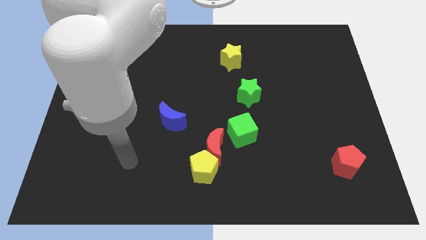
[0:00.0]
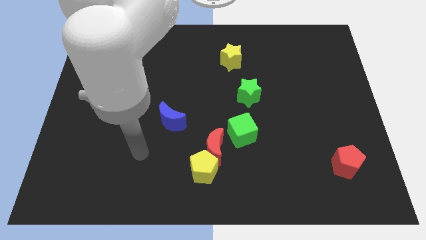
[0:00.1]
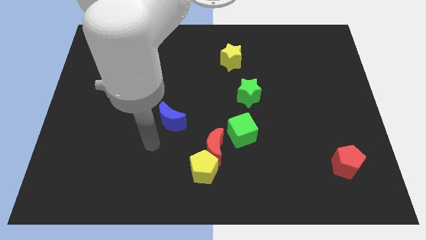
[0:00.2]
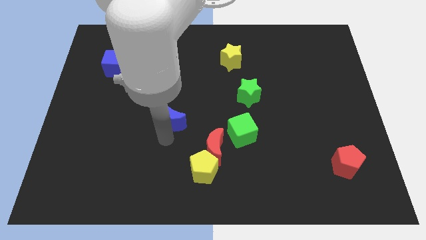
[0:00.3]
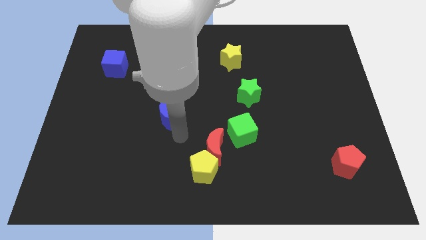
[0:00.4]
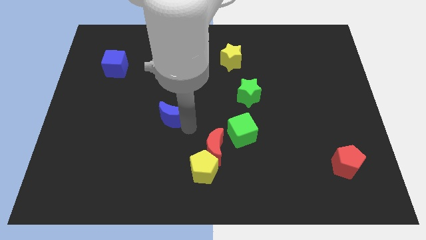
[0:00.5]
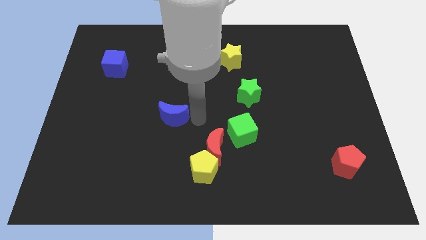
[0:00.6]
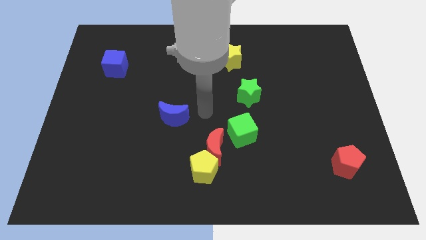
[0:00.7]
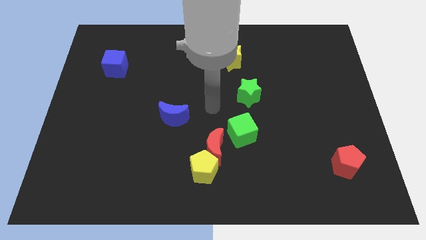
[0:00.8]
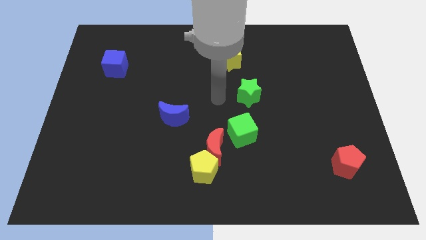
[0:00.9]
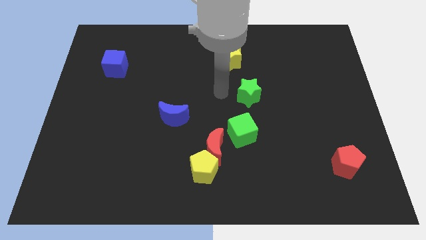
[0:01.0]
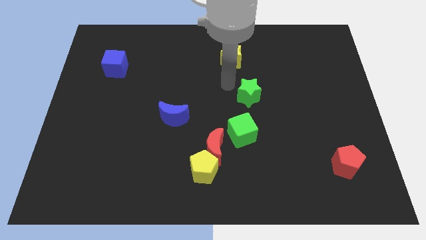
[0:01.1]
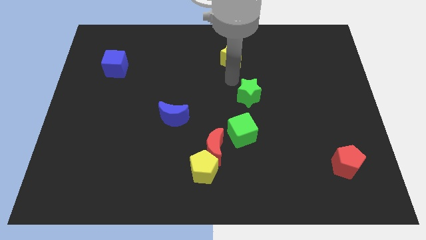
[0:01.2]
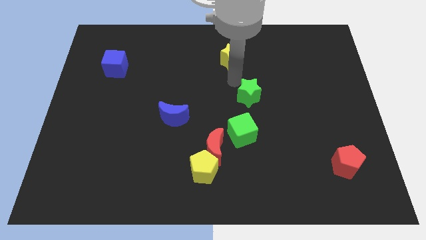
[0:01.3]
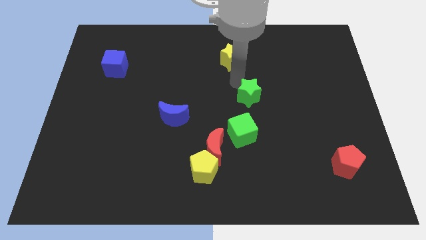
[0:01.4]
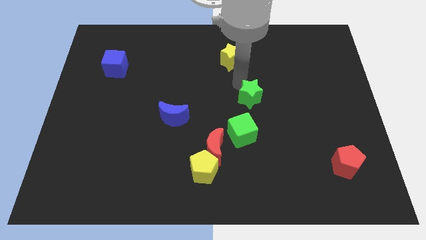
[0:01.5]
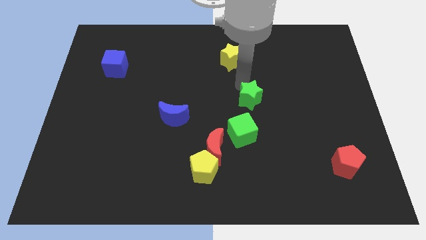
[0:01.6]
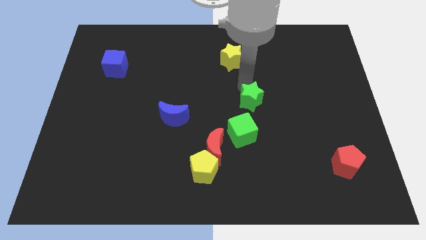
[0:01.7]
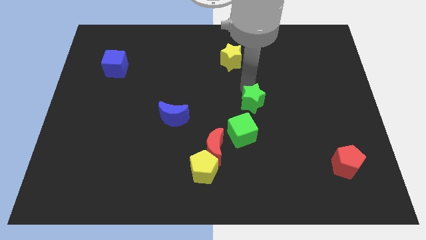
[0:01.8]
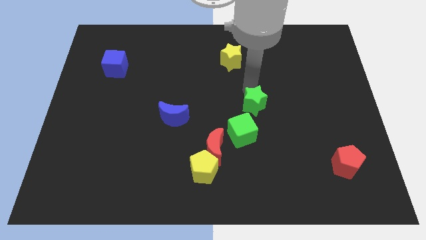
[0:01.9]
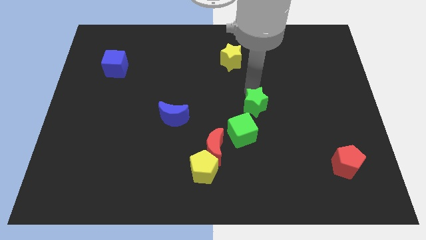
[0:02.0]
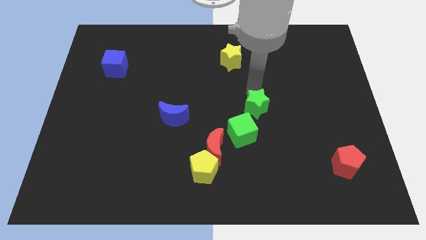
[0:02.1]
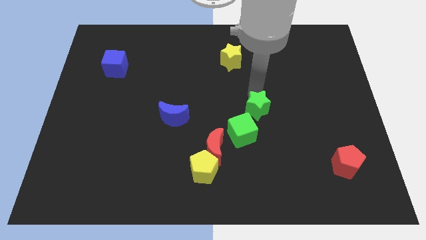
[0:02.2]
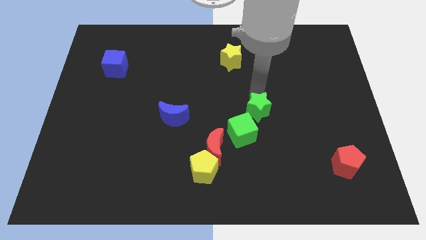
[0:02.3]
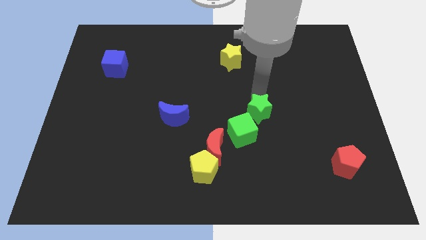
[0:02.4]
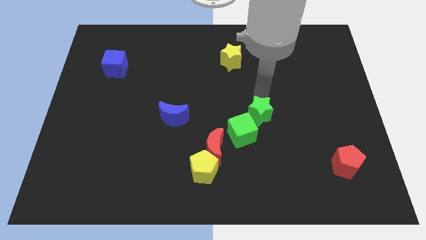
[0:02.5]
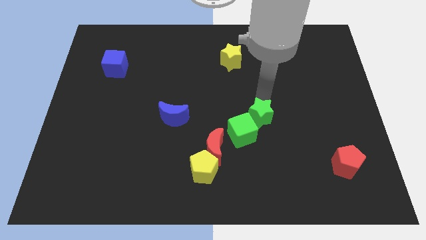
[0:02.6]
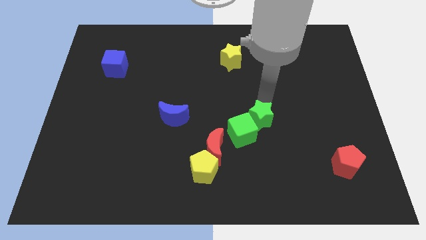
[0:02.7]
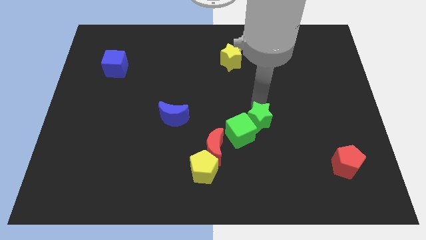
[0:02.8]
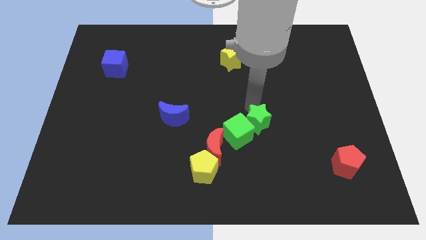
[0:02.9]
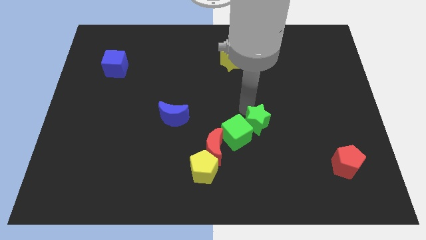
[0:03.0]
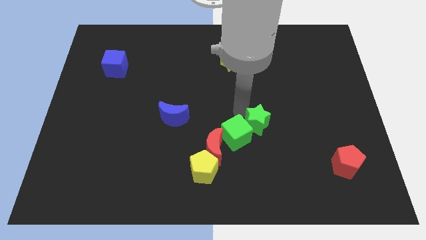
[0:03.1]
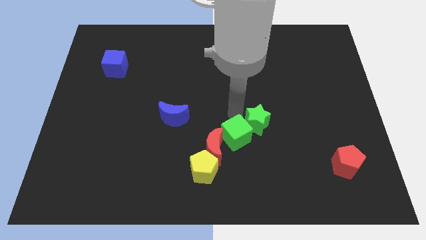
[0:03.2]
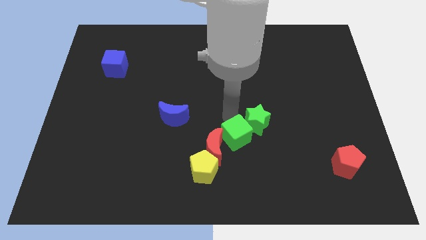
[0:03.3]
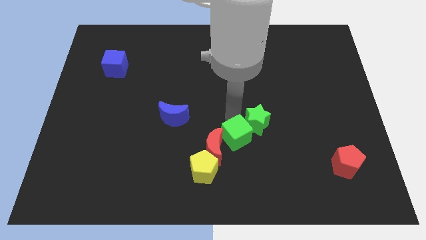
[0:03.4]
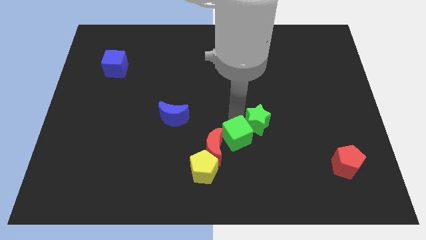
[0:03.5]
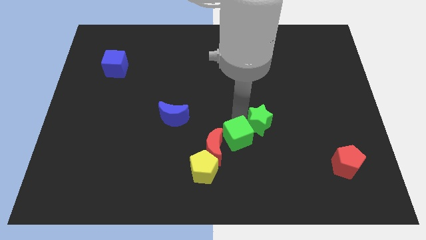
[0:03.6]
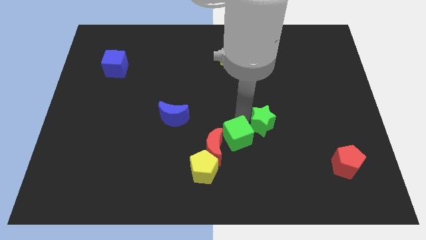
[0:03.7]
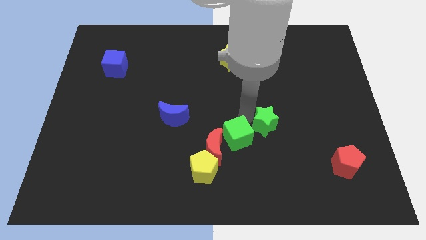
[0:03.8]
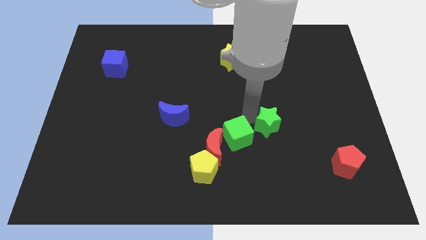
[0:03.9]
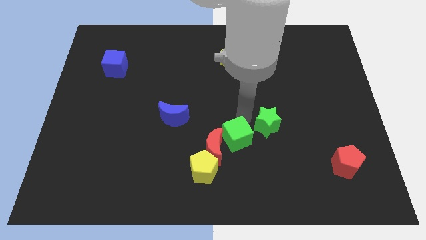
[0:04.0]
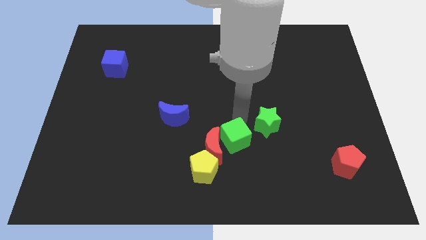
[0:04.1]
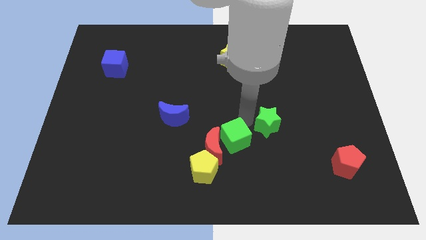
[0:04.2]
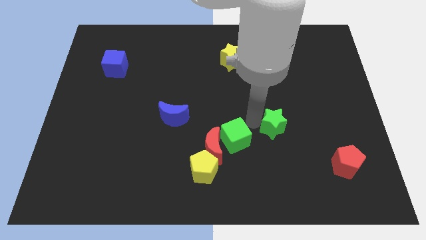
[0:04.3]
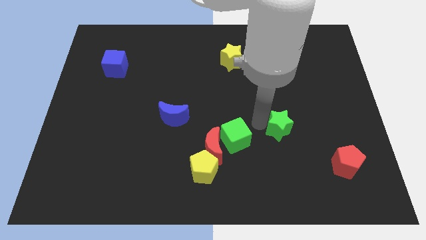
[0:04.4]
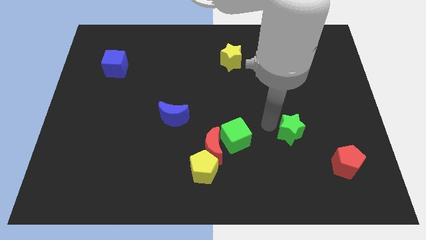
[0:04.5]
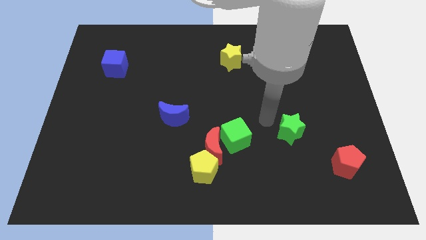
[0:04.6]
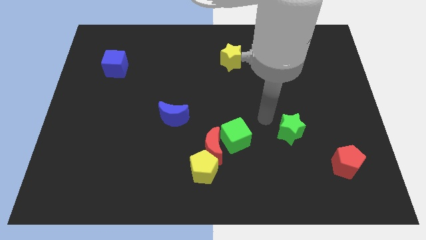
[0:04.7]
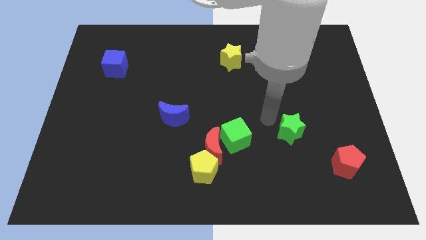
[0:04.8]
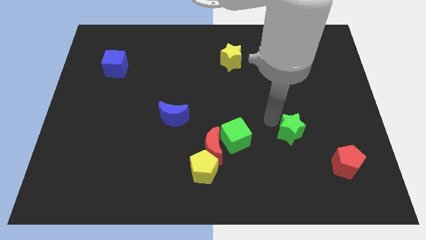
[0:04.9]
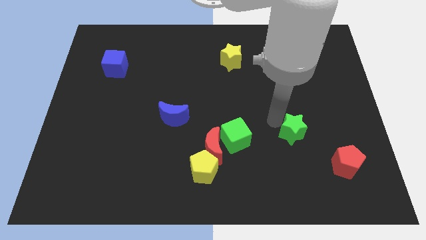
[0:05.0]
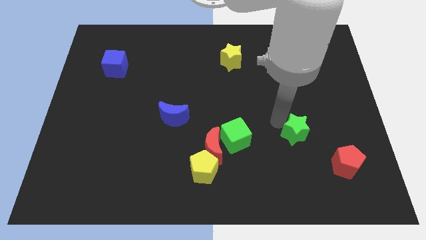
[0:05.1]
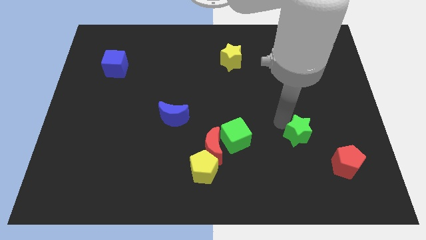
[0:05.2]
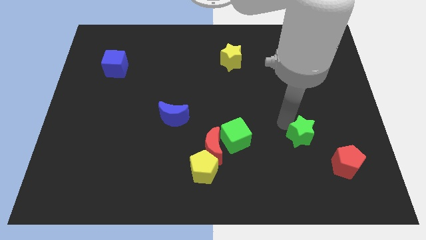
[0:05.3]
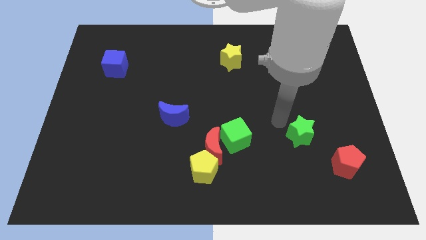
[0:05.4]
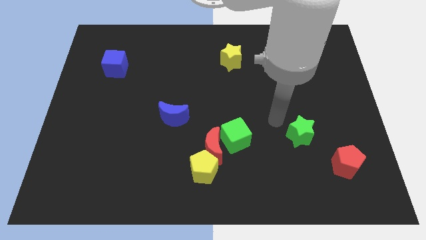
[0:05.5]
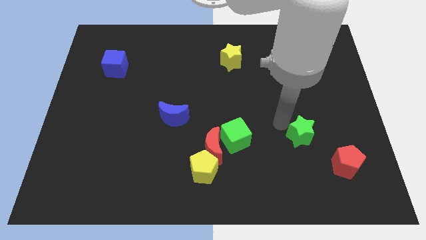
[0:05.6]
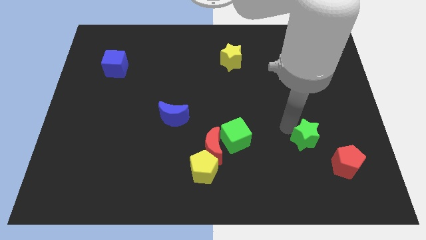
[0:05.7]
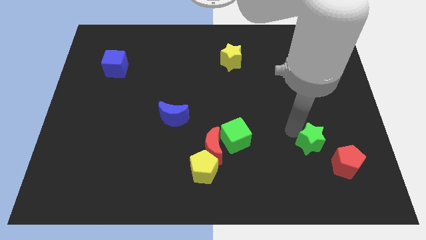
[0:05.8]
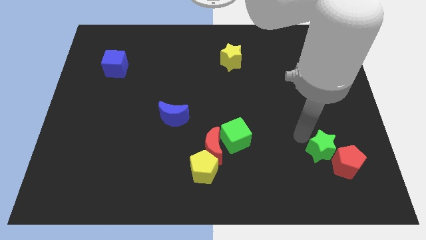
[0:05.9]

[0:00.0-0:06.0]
move the green star towards the red pentagon

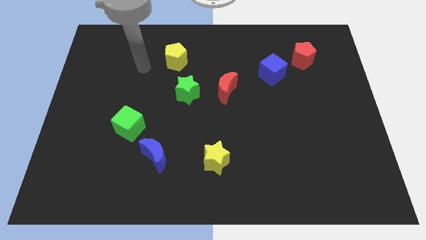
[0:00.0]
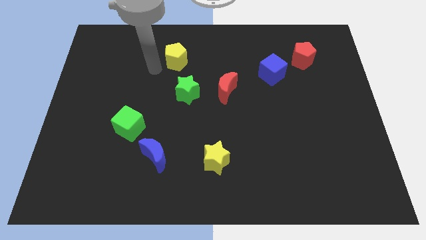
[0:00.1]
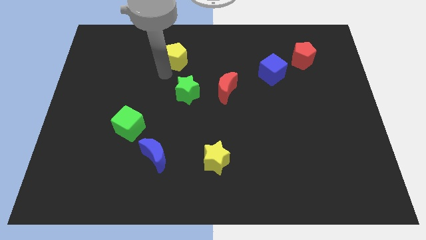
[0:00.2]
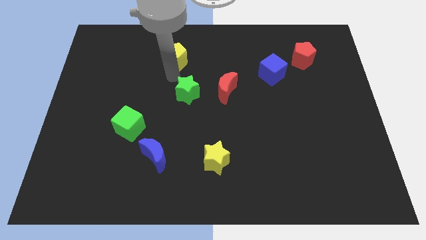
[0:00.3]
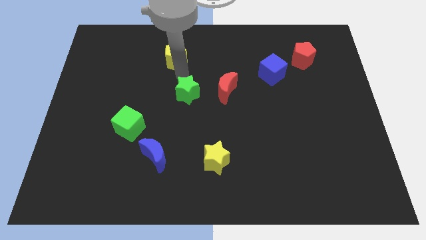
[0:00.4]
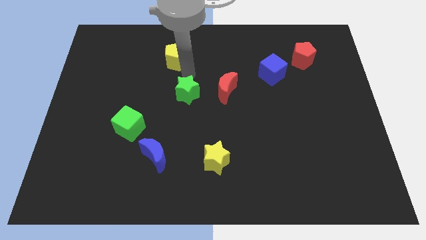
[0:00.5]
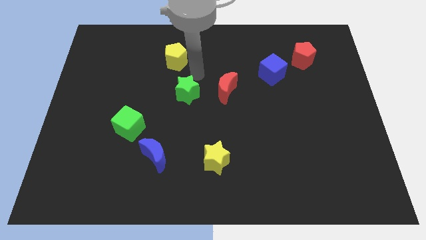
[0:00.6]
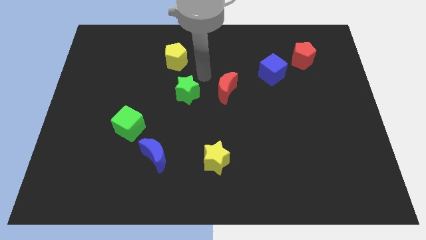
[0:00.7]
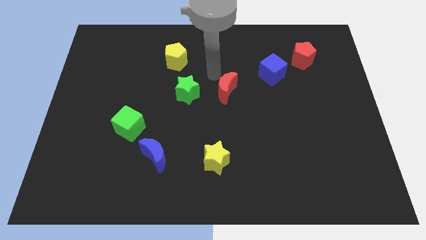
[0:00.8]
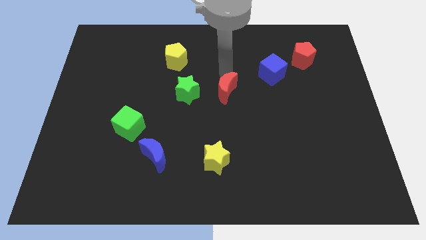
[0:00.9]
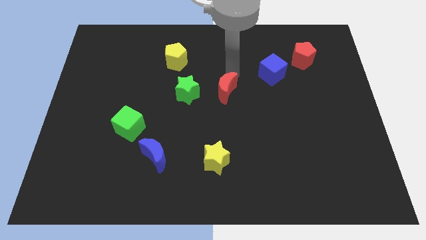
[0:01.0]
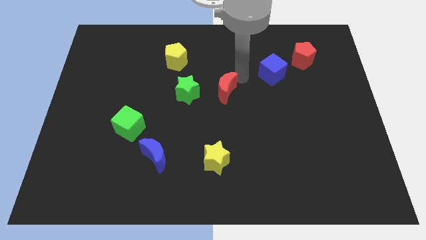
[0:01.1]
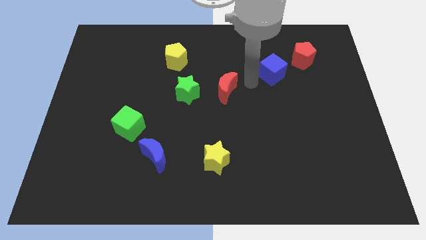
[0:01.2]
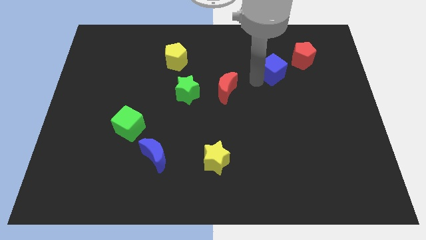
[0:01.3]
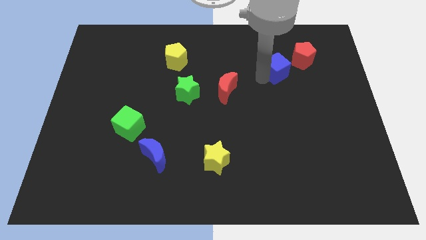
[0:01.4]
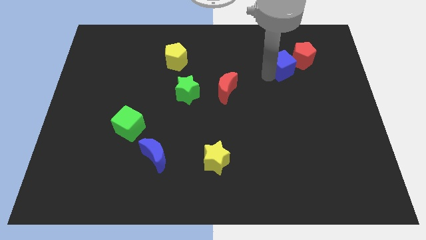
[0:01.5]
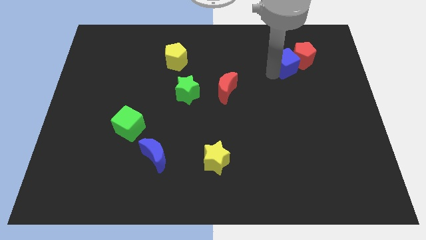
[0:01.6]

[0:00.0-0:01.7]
slide the blue cube to the red pentagon
